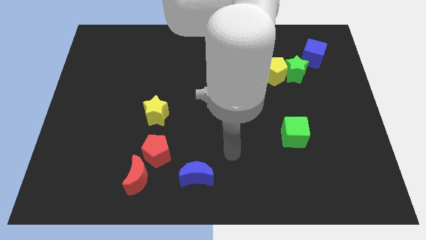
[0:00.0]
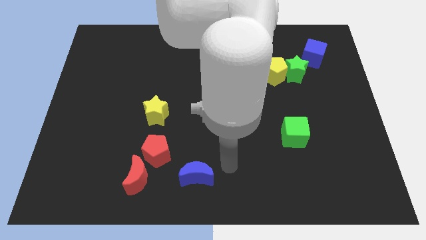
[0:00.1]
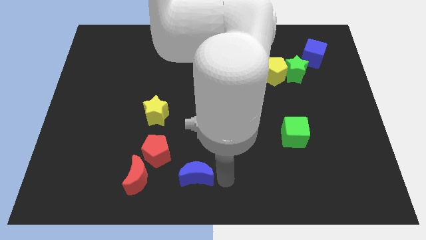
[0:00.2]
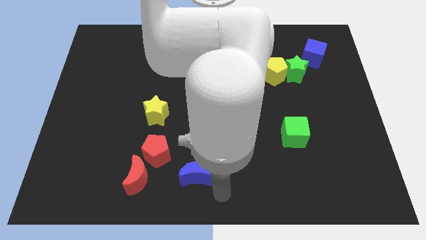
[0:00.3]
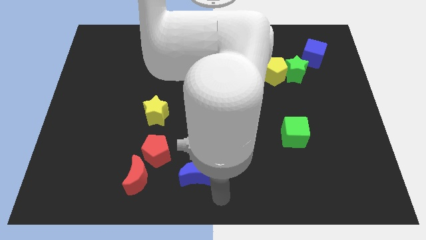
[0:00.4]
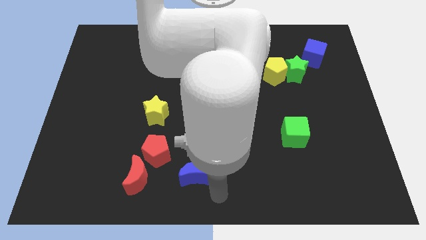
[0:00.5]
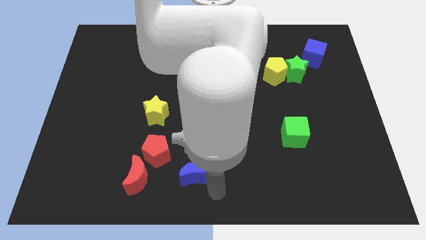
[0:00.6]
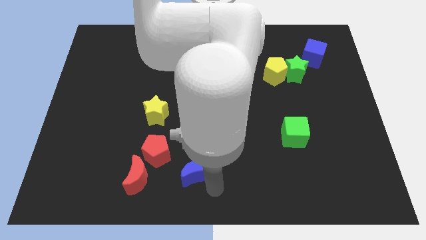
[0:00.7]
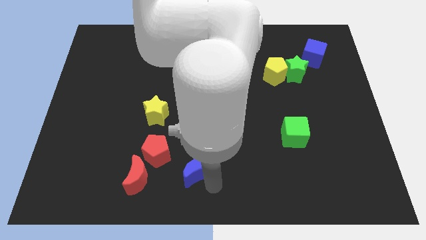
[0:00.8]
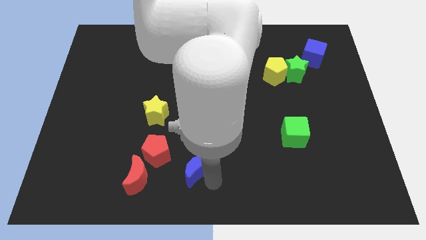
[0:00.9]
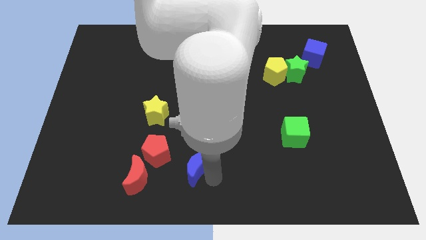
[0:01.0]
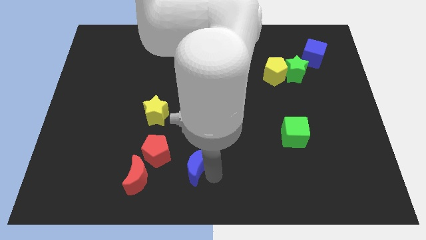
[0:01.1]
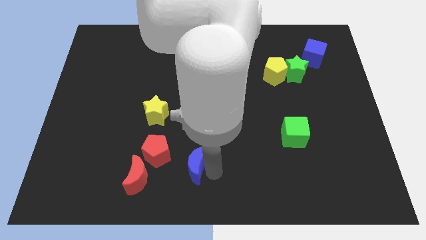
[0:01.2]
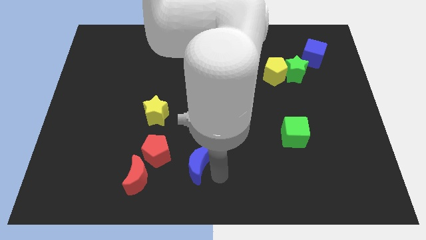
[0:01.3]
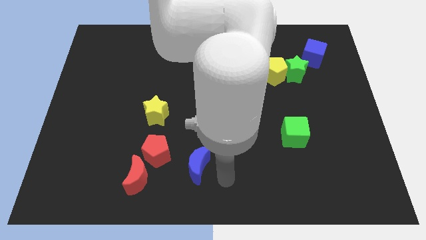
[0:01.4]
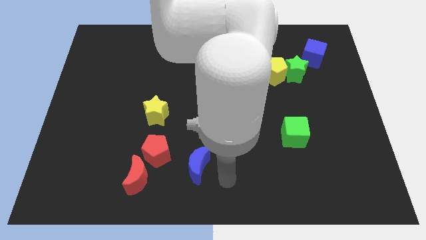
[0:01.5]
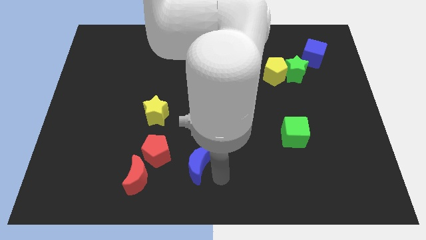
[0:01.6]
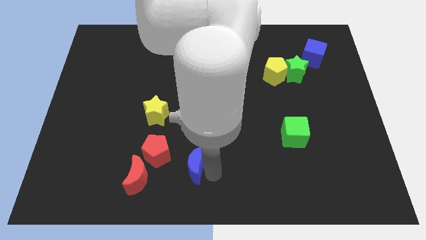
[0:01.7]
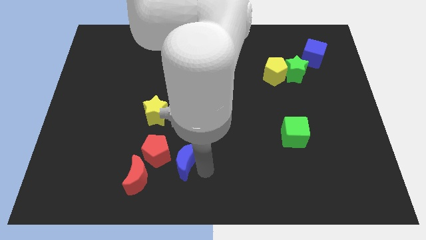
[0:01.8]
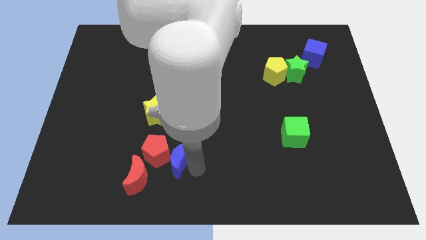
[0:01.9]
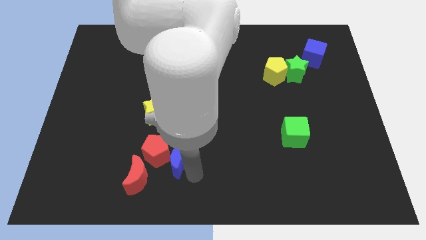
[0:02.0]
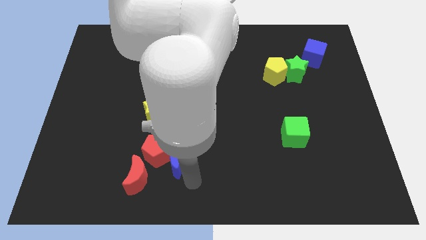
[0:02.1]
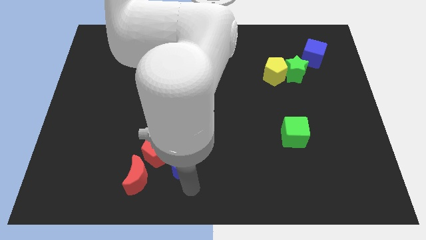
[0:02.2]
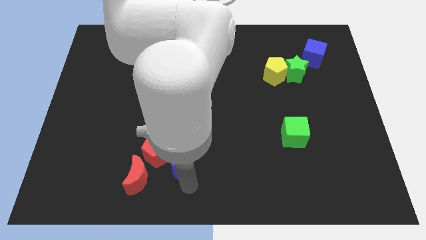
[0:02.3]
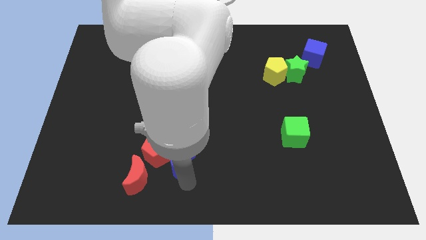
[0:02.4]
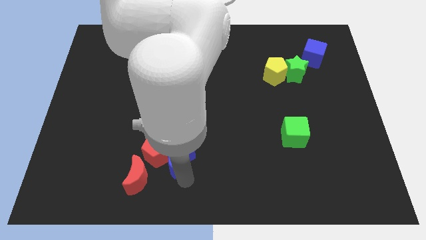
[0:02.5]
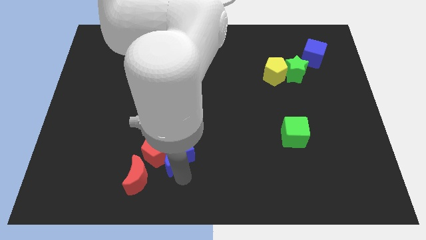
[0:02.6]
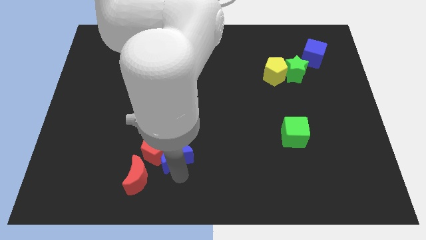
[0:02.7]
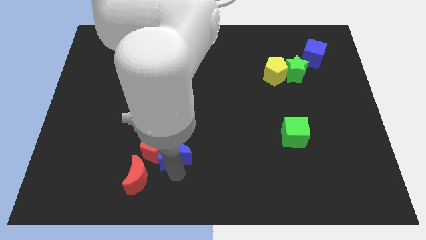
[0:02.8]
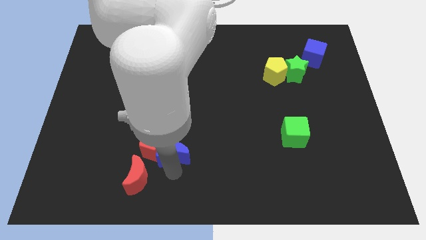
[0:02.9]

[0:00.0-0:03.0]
slightly push the blue moon upwards and then to the left

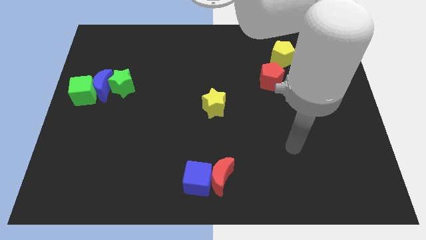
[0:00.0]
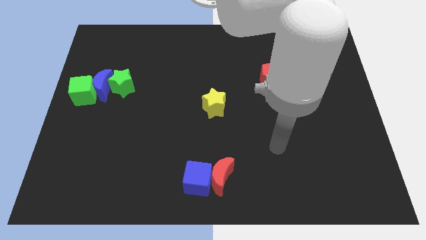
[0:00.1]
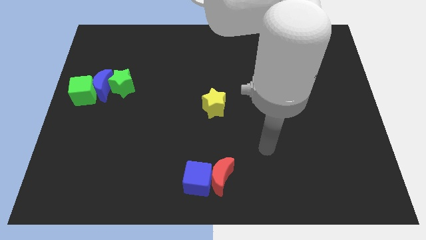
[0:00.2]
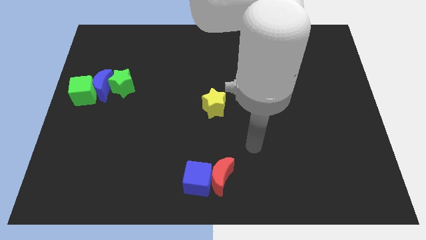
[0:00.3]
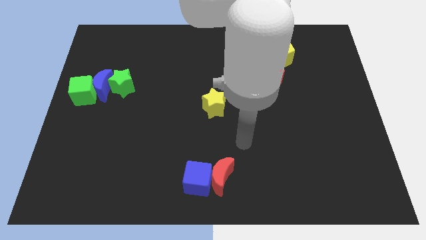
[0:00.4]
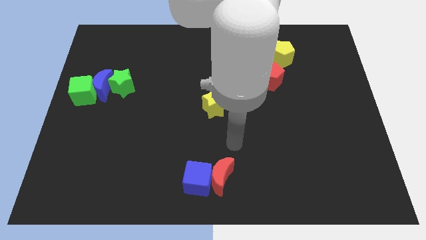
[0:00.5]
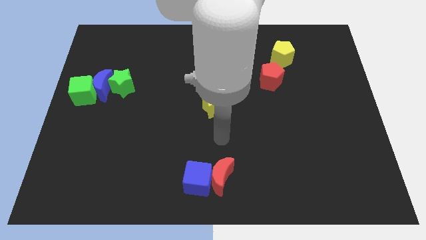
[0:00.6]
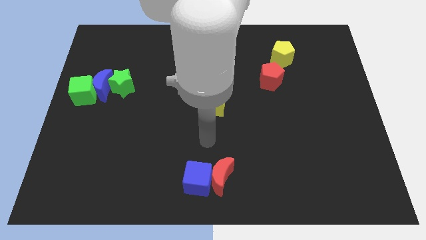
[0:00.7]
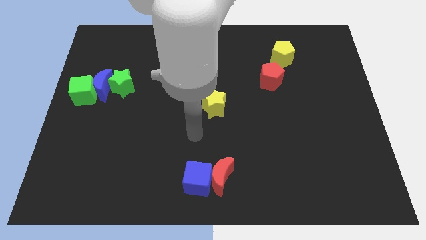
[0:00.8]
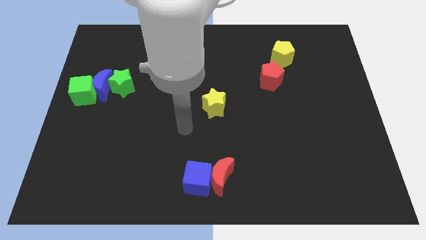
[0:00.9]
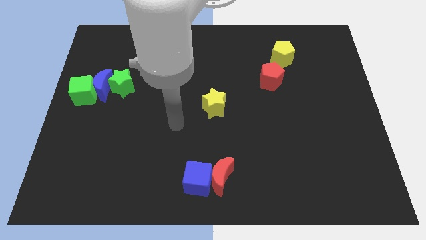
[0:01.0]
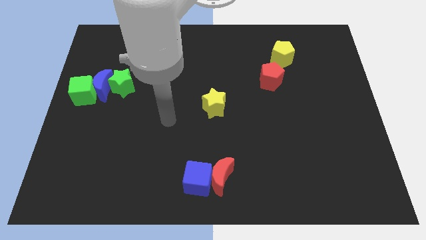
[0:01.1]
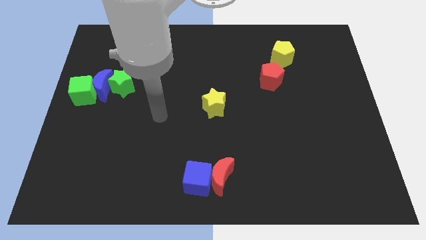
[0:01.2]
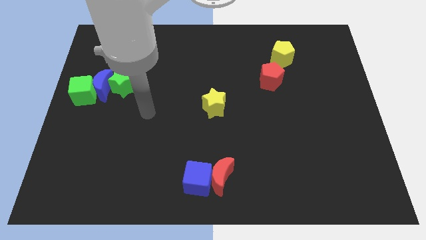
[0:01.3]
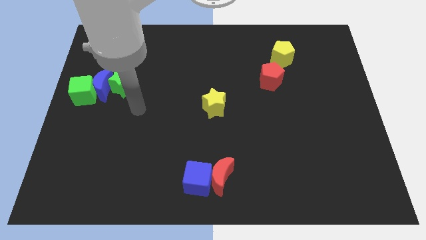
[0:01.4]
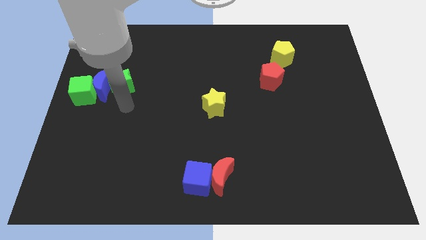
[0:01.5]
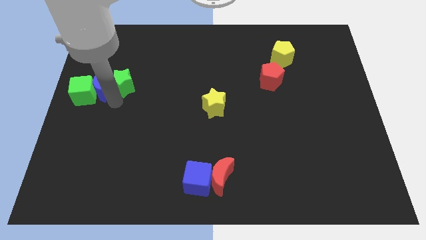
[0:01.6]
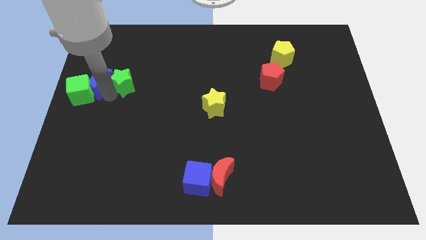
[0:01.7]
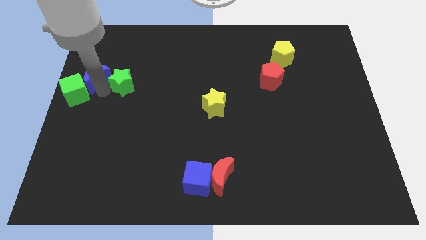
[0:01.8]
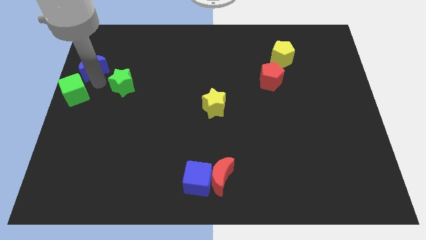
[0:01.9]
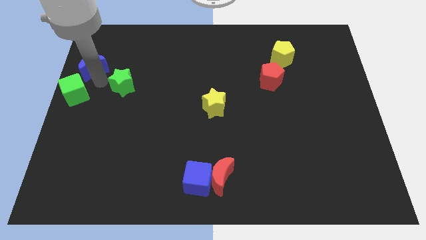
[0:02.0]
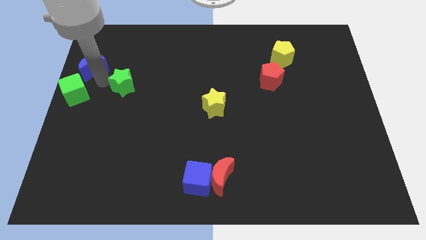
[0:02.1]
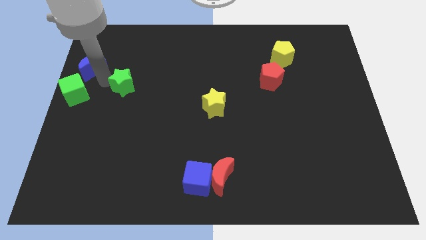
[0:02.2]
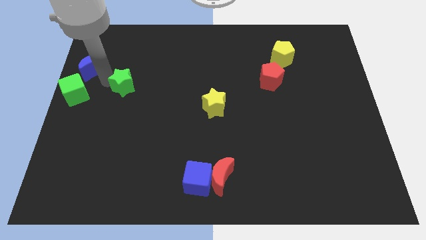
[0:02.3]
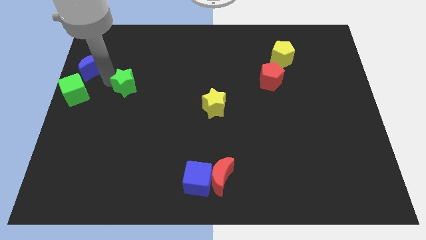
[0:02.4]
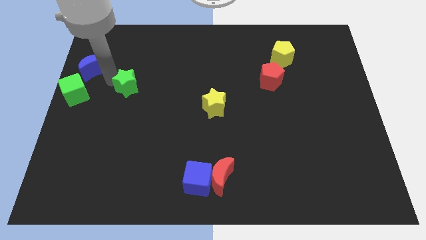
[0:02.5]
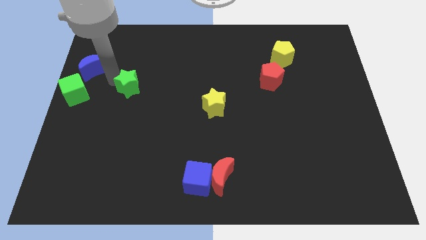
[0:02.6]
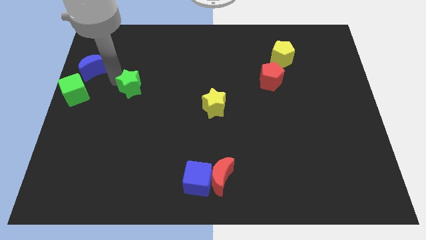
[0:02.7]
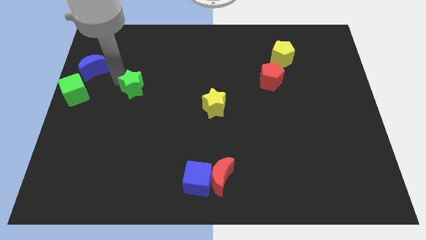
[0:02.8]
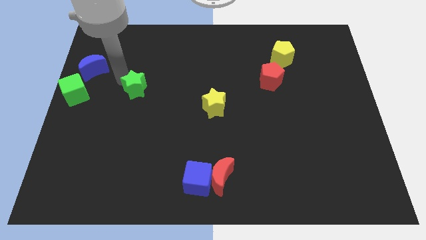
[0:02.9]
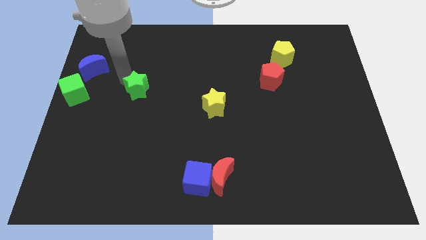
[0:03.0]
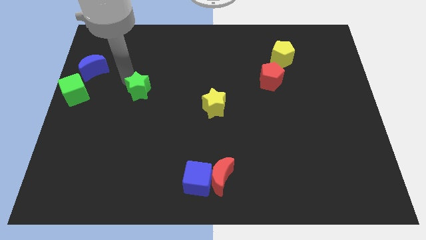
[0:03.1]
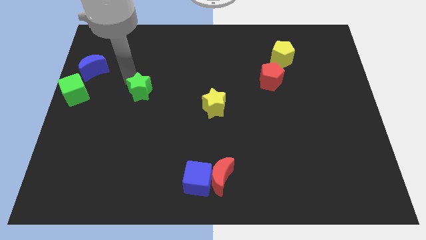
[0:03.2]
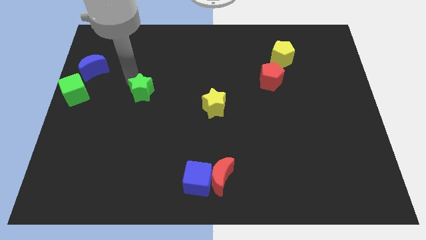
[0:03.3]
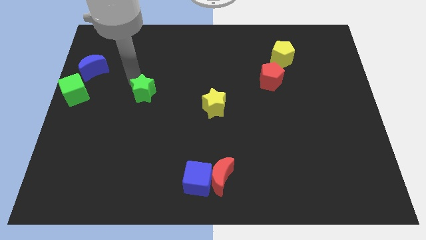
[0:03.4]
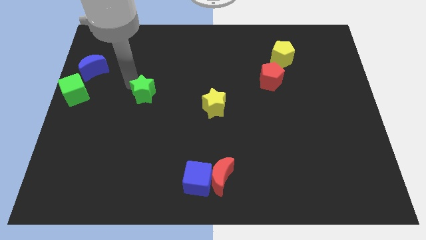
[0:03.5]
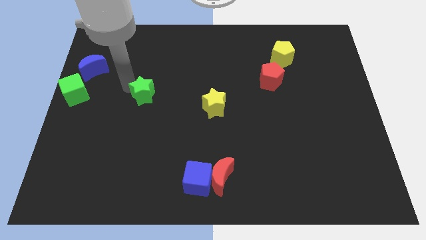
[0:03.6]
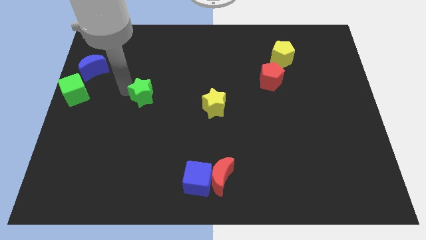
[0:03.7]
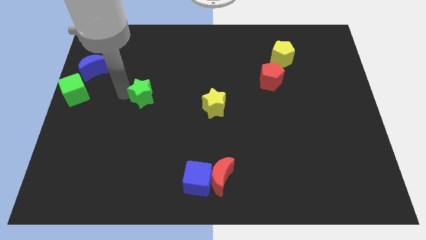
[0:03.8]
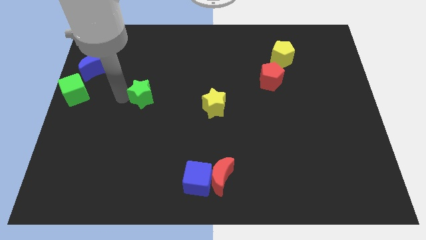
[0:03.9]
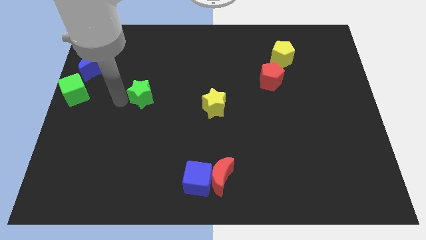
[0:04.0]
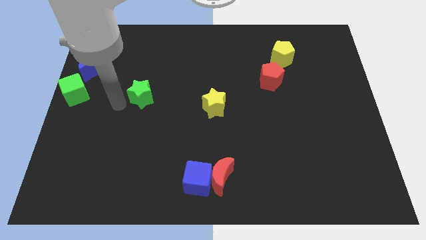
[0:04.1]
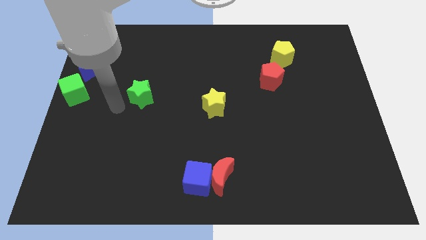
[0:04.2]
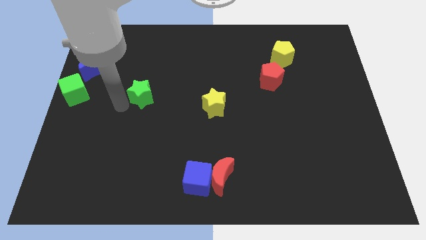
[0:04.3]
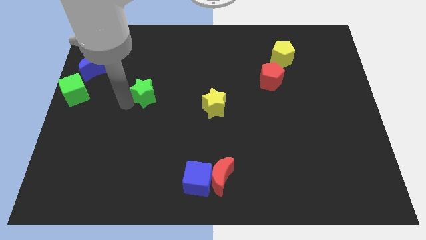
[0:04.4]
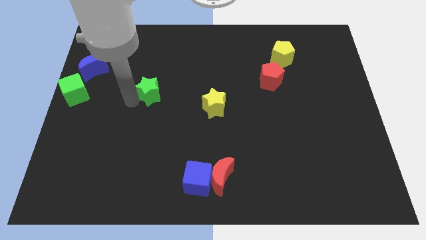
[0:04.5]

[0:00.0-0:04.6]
move the green star a little bit right
